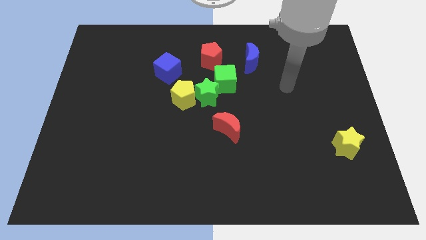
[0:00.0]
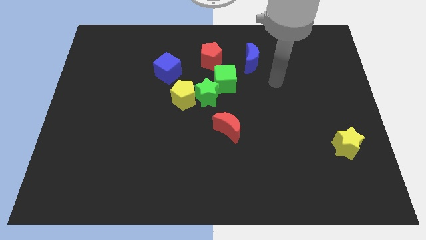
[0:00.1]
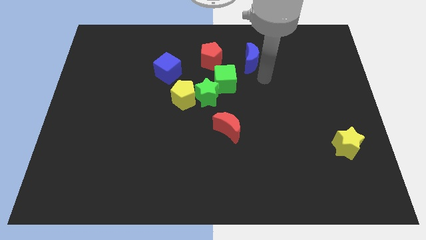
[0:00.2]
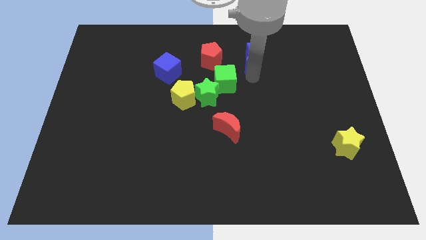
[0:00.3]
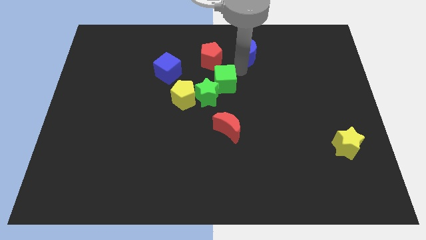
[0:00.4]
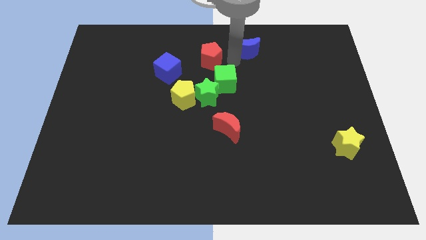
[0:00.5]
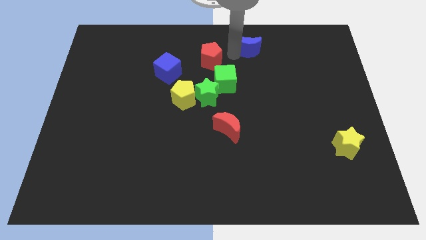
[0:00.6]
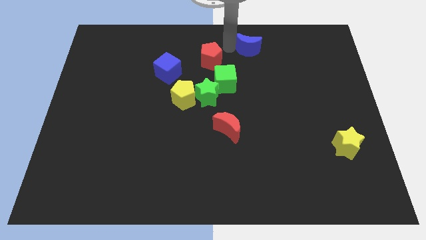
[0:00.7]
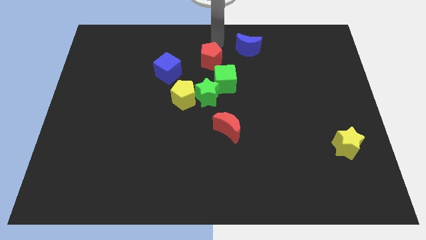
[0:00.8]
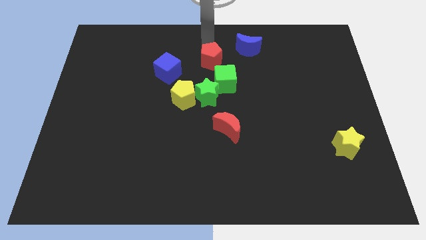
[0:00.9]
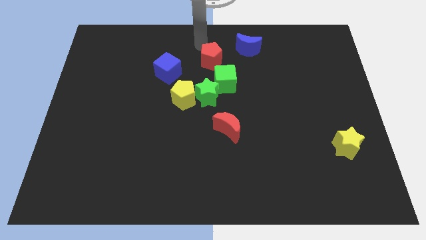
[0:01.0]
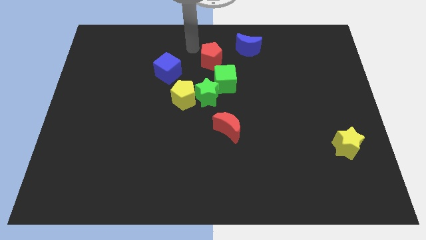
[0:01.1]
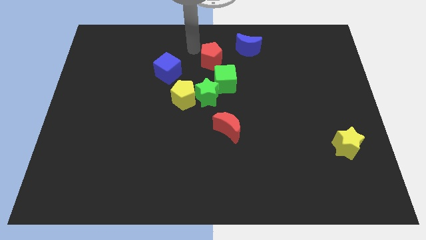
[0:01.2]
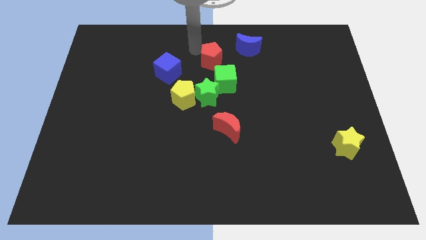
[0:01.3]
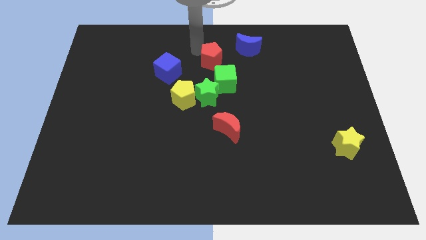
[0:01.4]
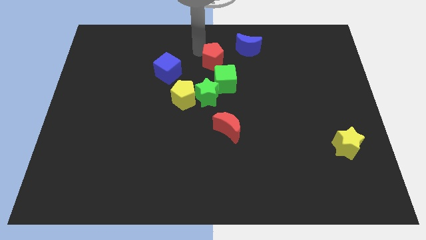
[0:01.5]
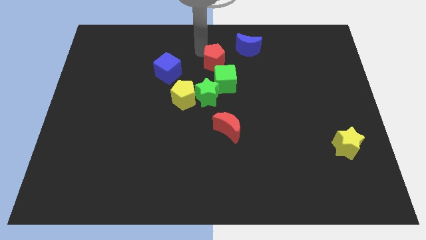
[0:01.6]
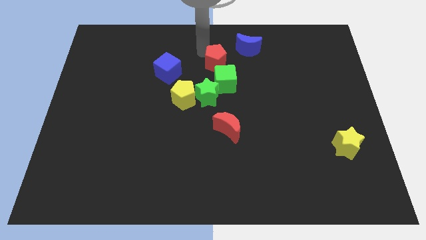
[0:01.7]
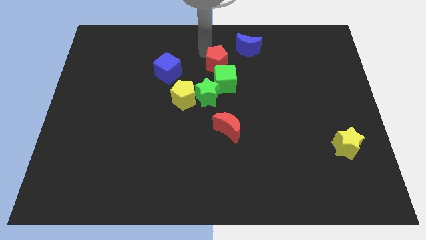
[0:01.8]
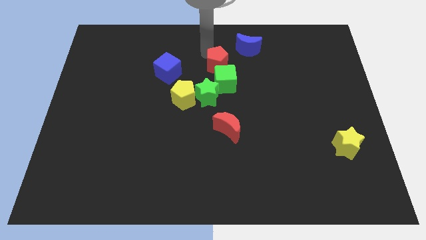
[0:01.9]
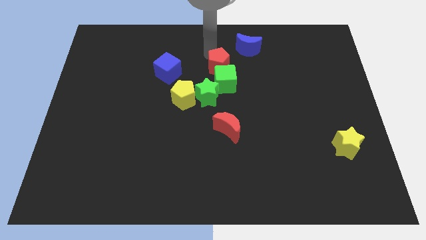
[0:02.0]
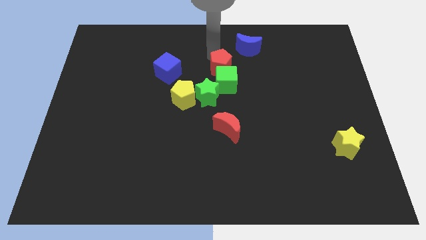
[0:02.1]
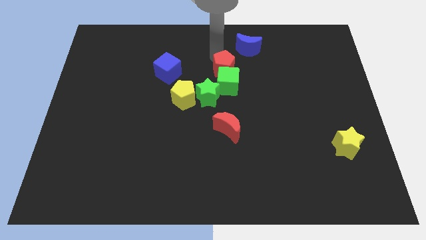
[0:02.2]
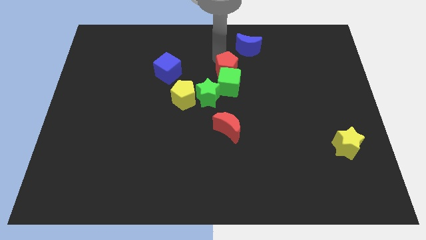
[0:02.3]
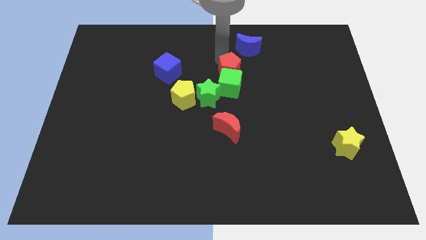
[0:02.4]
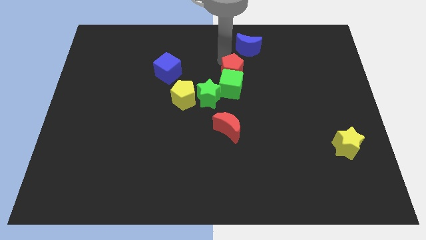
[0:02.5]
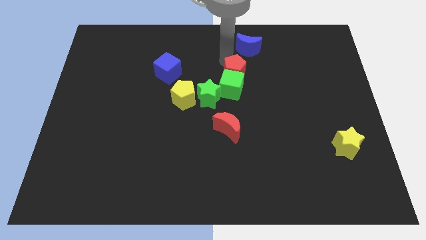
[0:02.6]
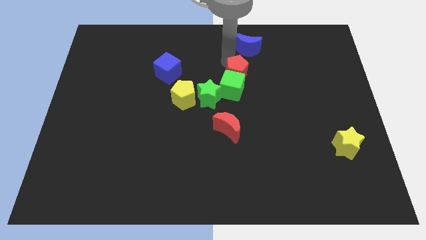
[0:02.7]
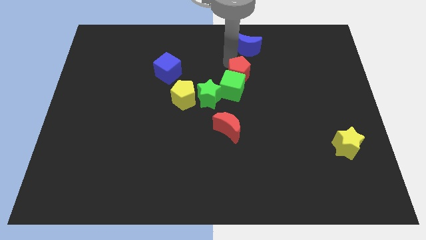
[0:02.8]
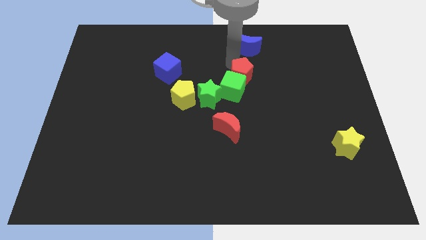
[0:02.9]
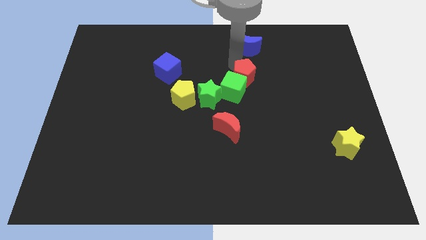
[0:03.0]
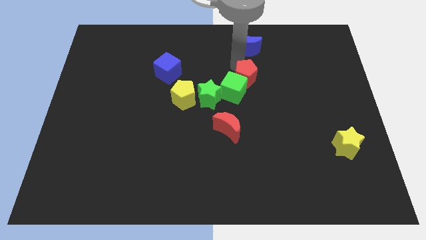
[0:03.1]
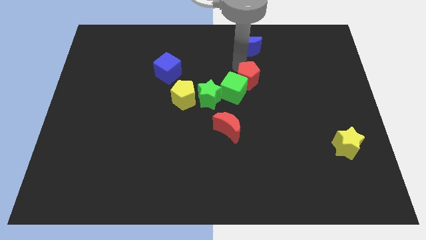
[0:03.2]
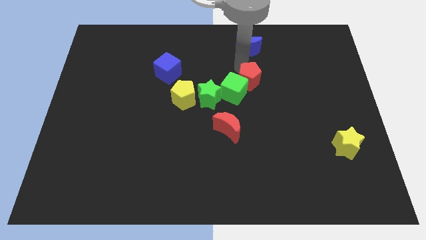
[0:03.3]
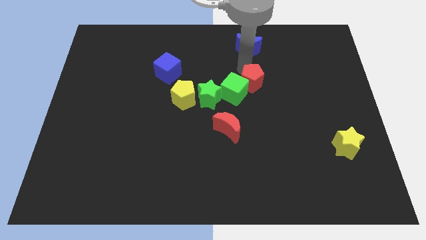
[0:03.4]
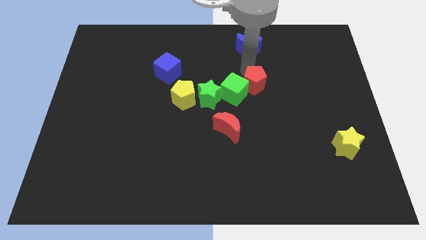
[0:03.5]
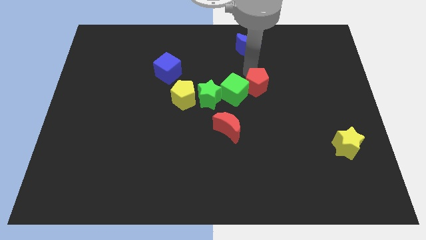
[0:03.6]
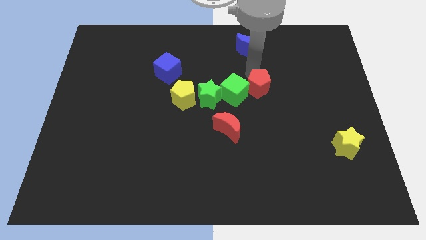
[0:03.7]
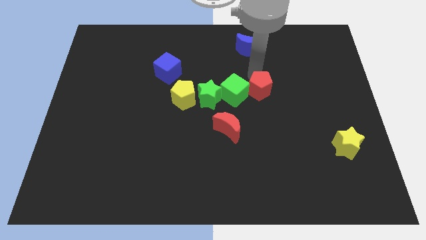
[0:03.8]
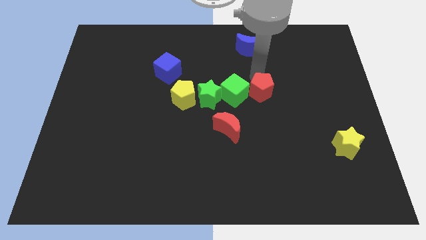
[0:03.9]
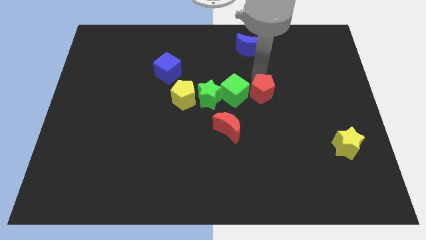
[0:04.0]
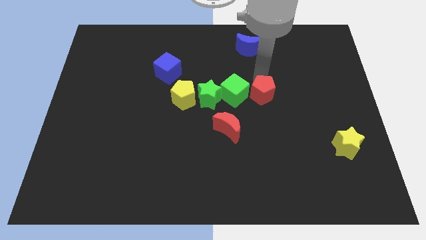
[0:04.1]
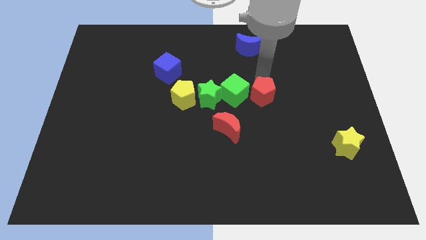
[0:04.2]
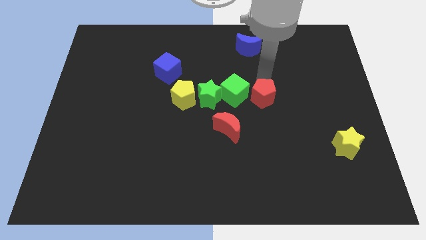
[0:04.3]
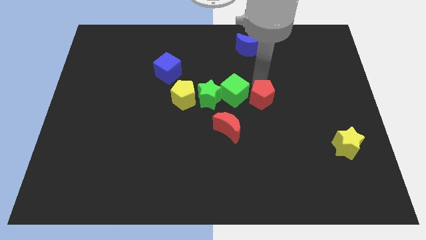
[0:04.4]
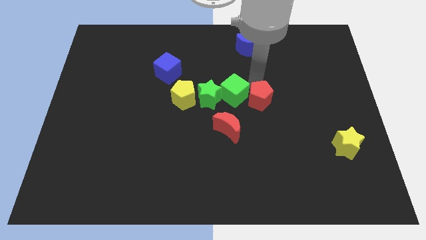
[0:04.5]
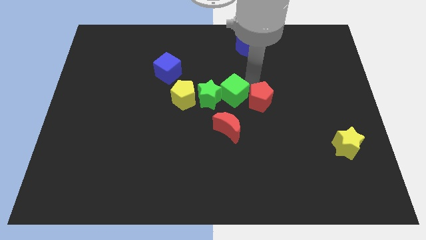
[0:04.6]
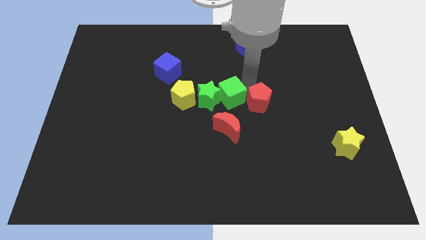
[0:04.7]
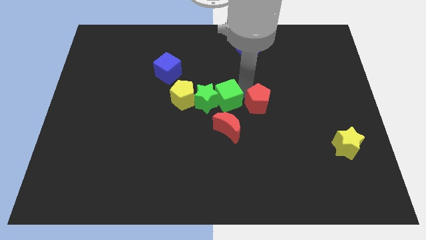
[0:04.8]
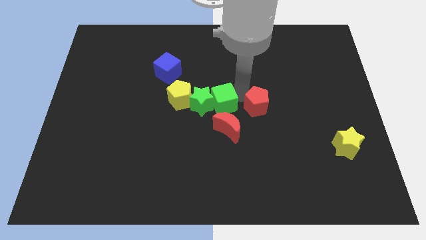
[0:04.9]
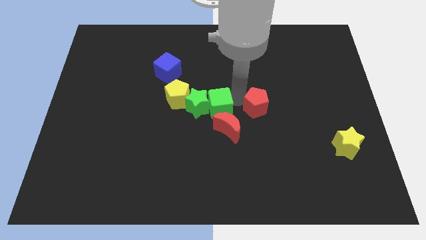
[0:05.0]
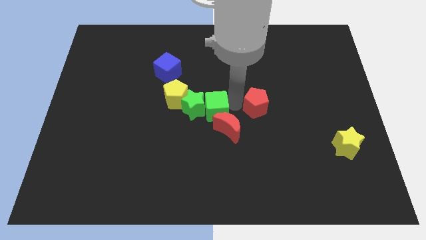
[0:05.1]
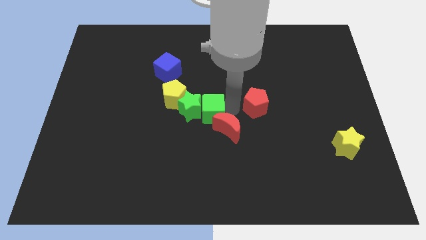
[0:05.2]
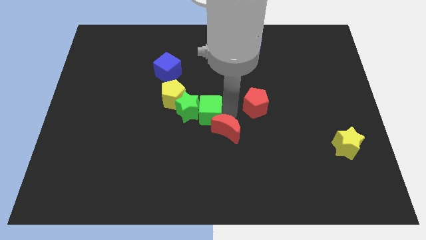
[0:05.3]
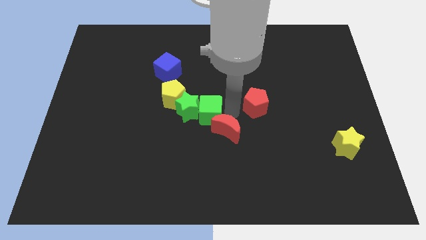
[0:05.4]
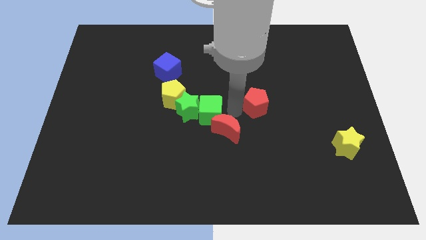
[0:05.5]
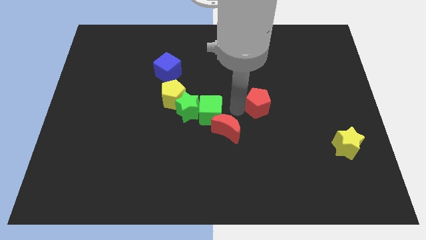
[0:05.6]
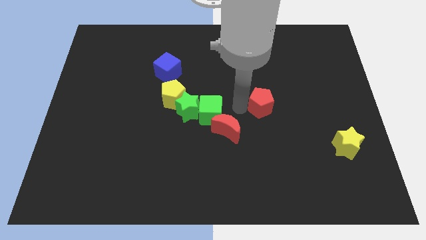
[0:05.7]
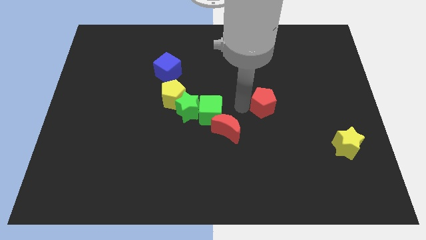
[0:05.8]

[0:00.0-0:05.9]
slide the red pentagon down and then to the right

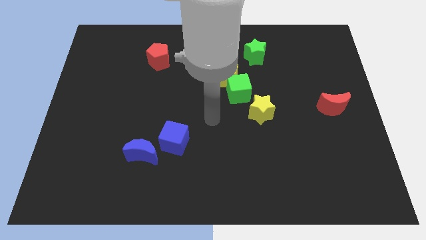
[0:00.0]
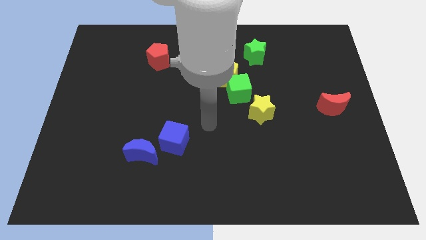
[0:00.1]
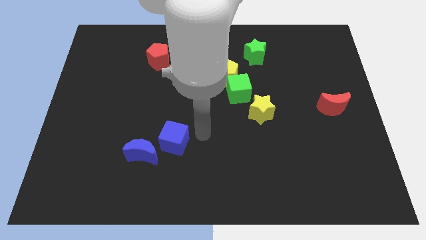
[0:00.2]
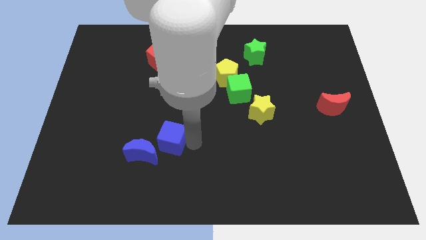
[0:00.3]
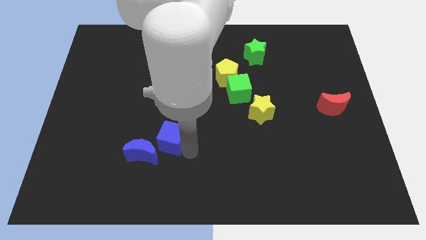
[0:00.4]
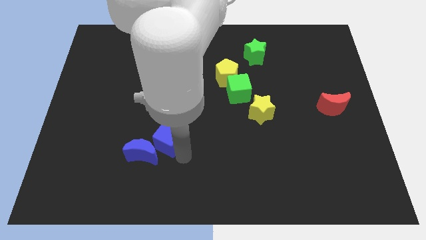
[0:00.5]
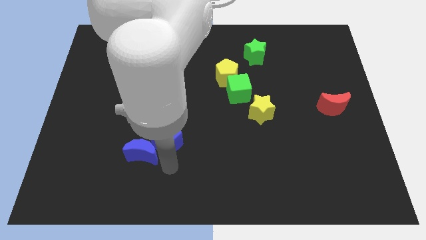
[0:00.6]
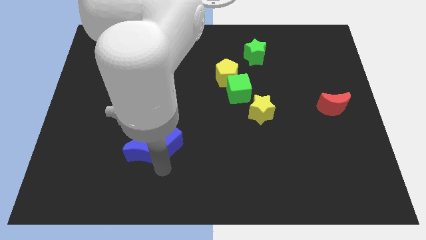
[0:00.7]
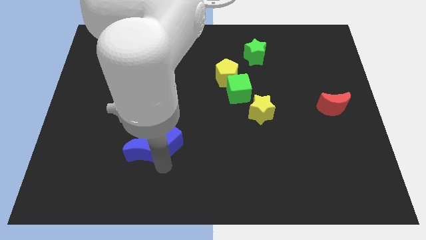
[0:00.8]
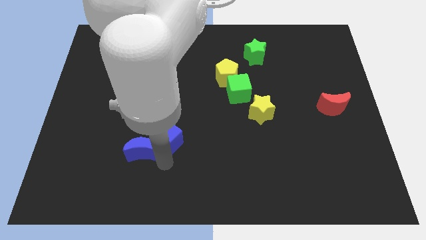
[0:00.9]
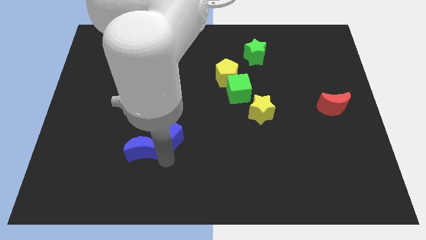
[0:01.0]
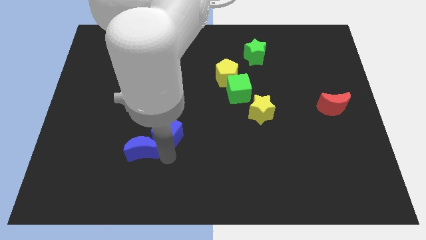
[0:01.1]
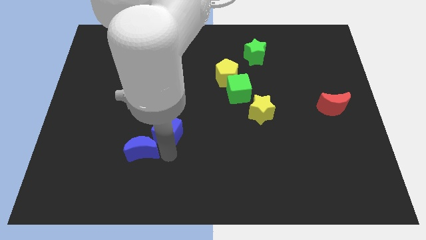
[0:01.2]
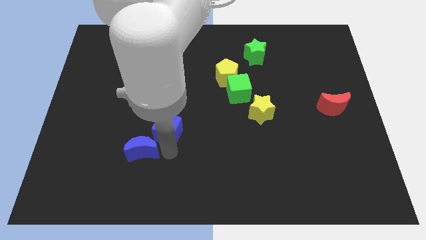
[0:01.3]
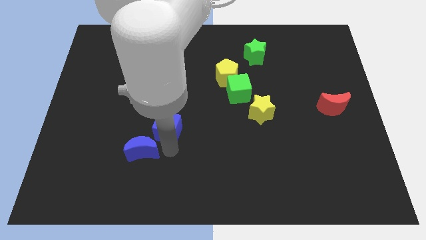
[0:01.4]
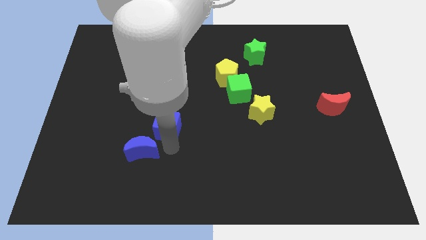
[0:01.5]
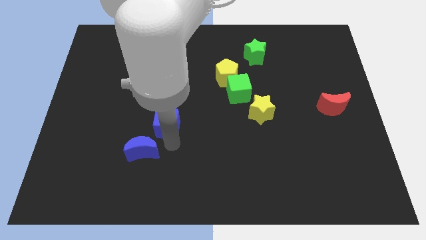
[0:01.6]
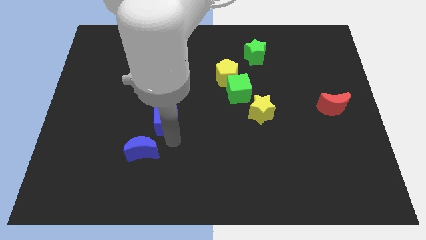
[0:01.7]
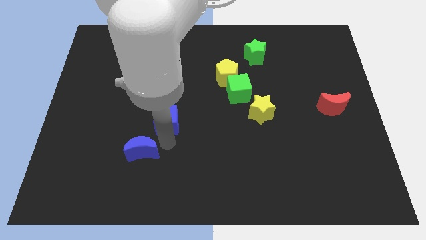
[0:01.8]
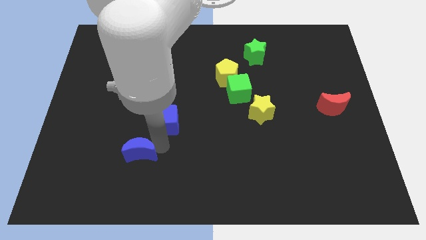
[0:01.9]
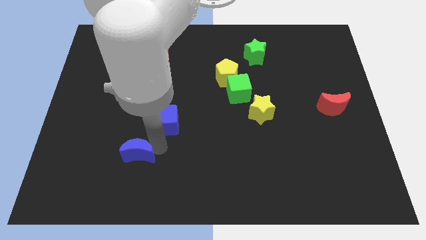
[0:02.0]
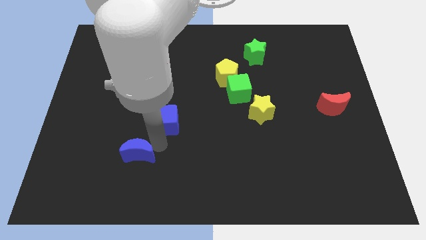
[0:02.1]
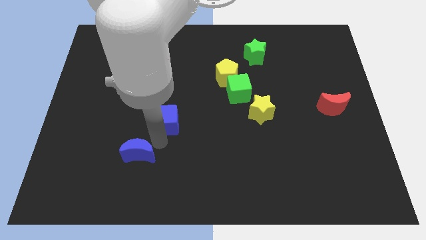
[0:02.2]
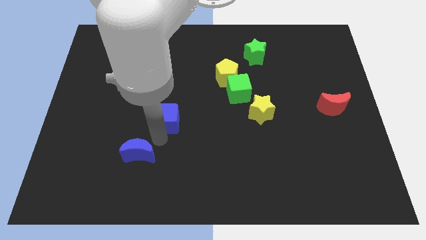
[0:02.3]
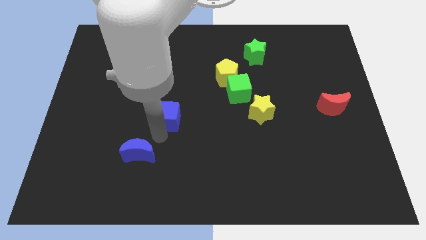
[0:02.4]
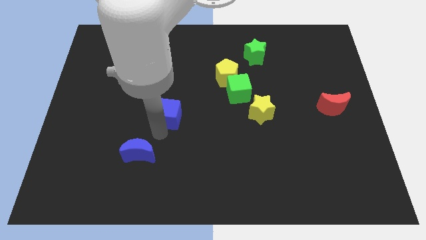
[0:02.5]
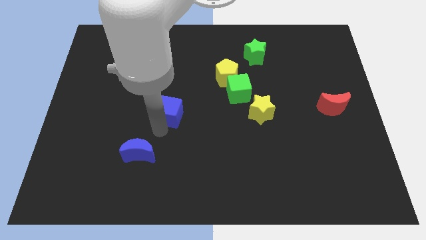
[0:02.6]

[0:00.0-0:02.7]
push the blue cube upwards a little bit
